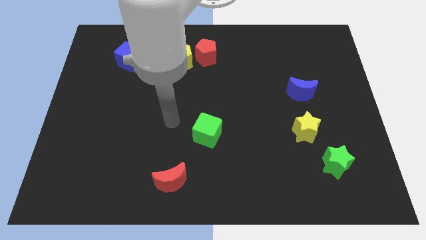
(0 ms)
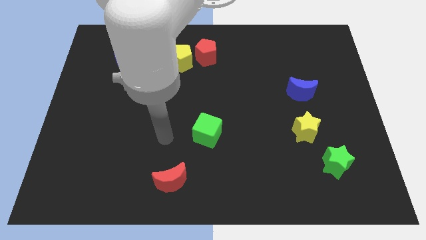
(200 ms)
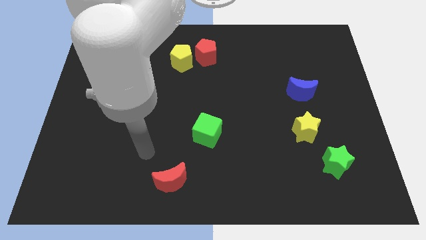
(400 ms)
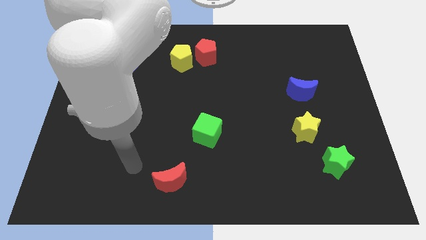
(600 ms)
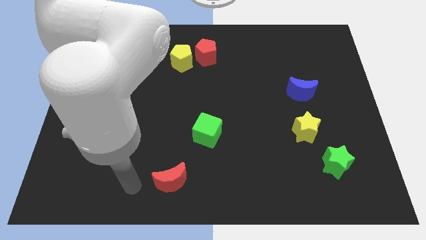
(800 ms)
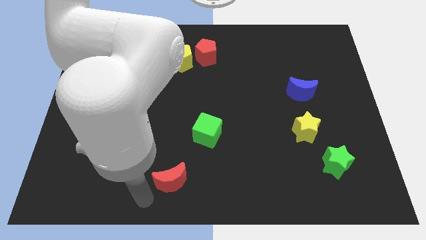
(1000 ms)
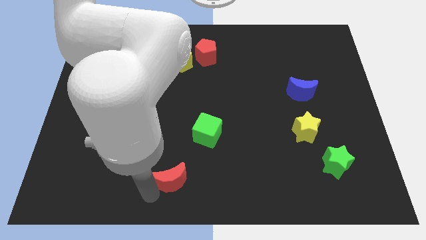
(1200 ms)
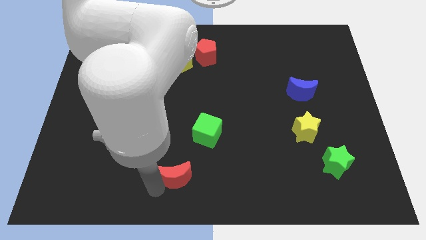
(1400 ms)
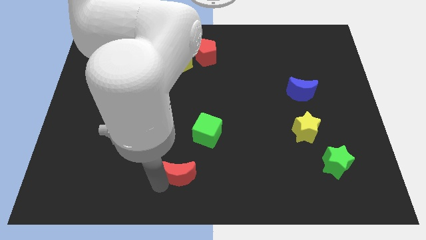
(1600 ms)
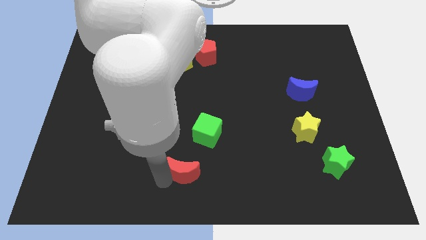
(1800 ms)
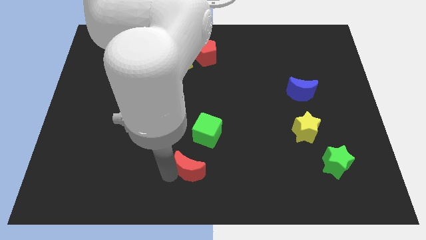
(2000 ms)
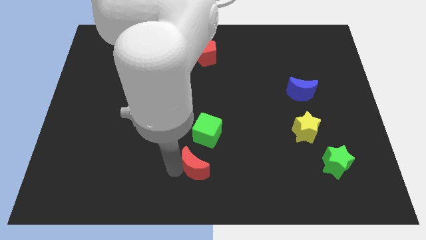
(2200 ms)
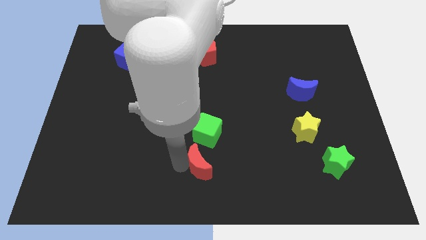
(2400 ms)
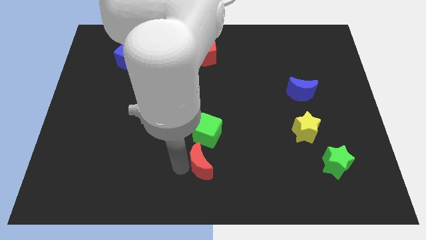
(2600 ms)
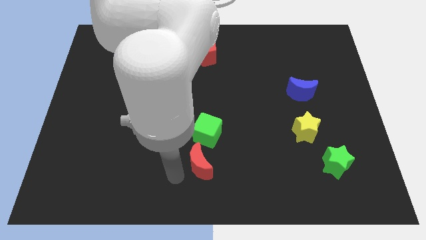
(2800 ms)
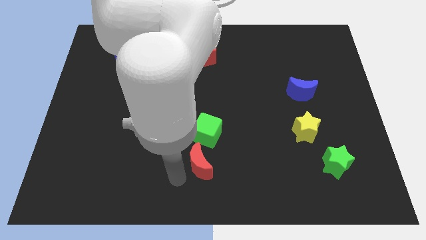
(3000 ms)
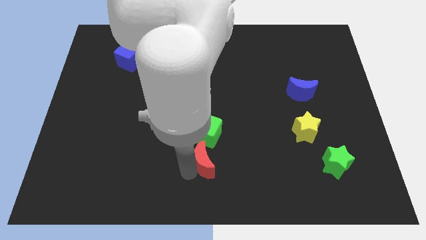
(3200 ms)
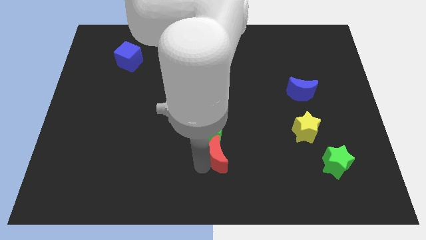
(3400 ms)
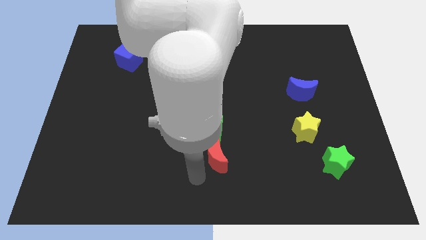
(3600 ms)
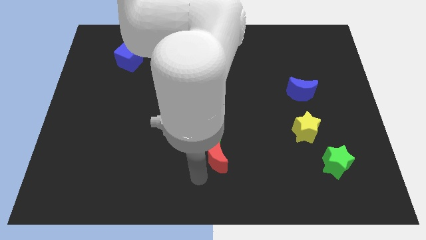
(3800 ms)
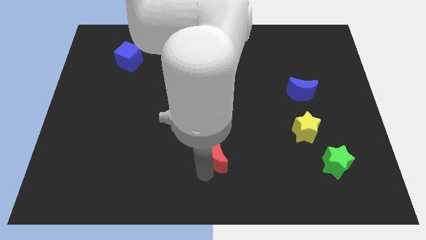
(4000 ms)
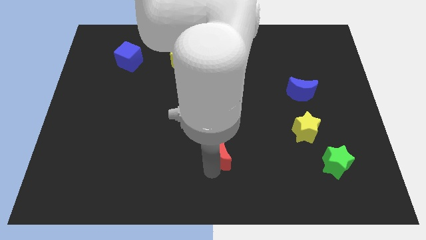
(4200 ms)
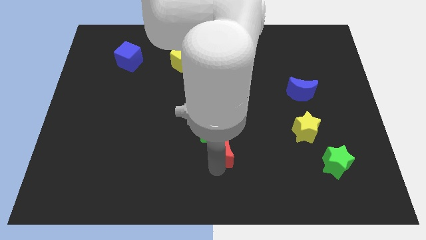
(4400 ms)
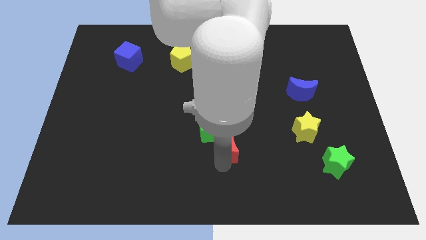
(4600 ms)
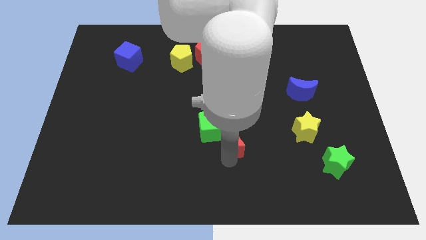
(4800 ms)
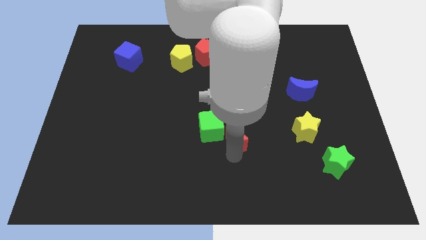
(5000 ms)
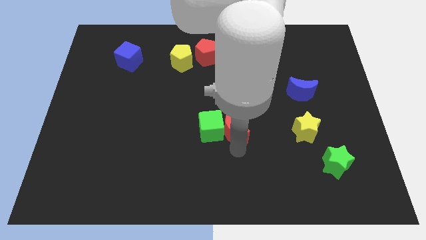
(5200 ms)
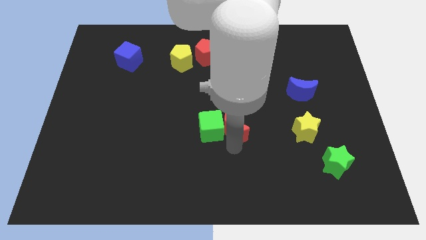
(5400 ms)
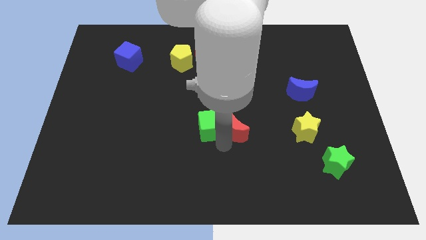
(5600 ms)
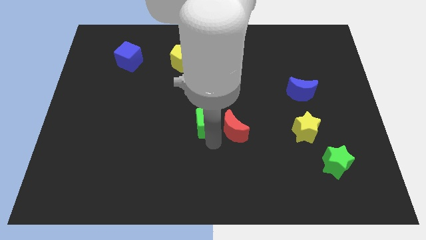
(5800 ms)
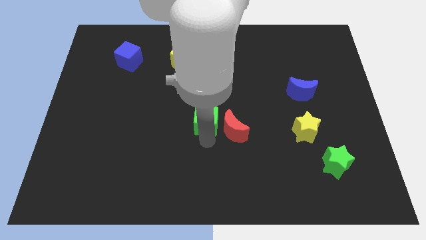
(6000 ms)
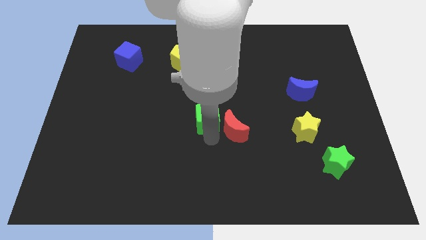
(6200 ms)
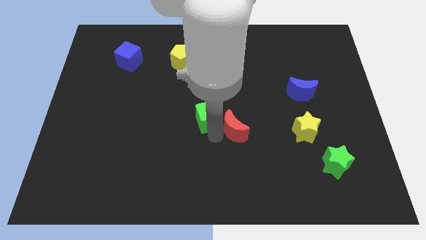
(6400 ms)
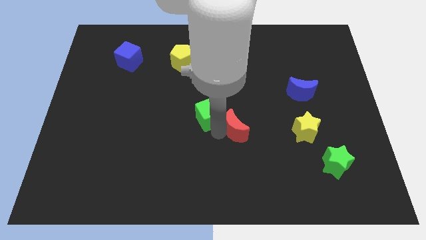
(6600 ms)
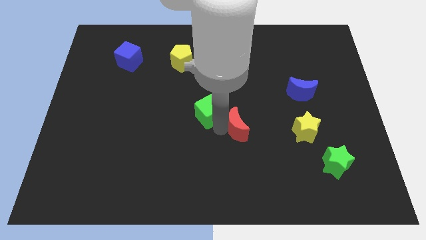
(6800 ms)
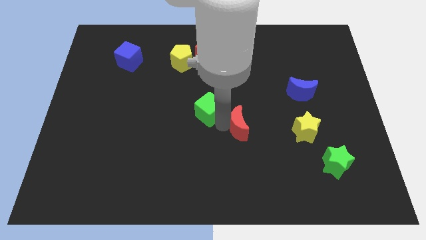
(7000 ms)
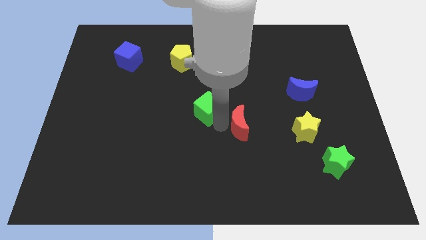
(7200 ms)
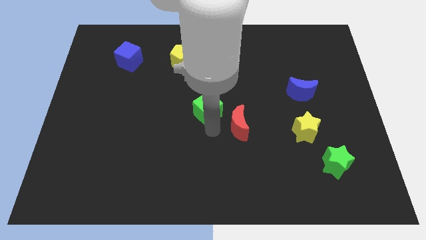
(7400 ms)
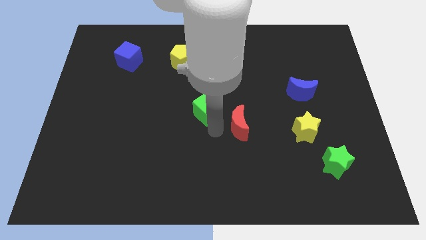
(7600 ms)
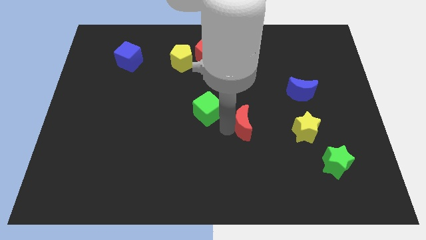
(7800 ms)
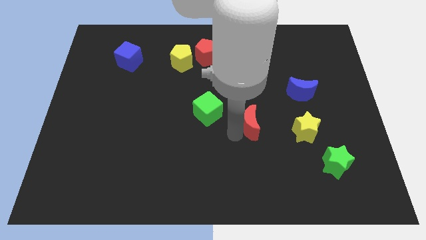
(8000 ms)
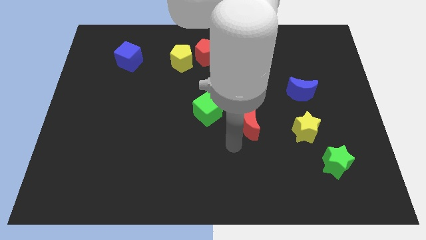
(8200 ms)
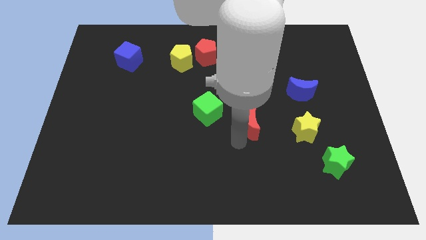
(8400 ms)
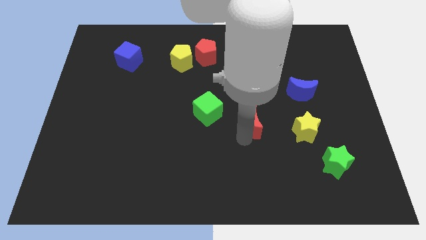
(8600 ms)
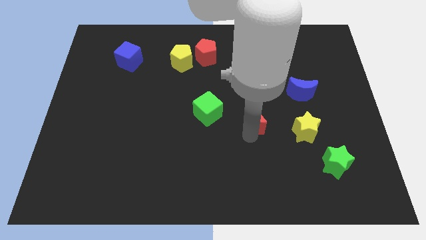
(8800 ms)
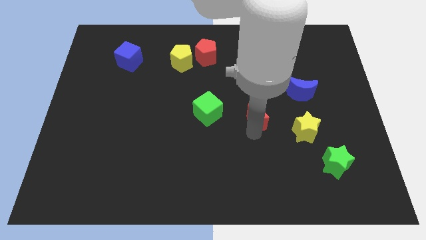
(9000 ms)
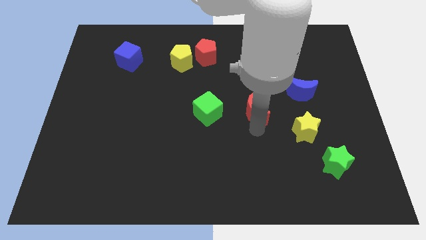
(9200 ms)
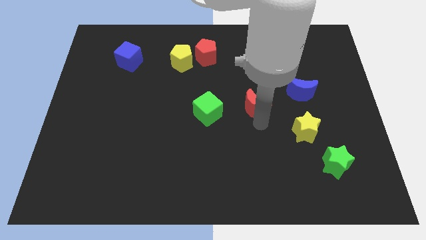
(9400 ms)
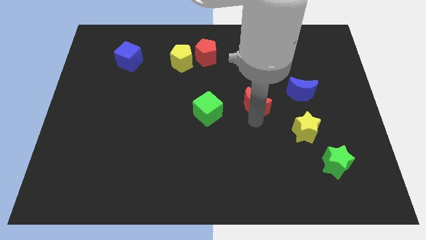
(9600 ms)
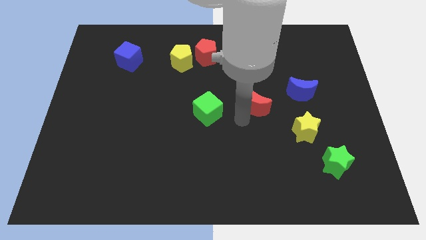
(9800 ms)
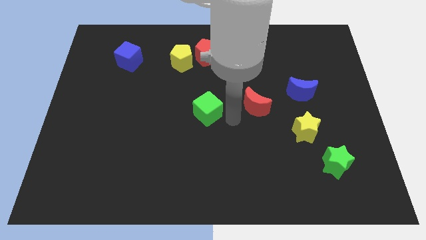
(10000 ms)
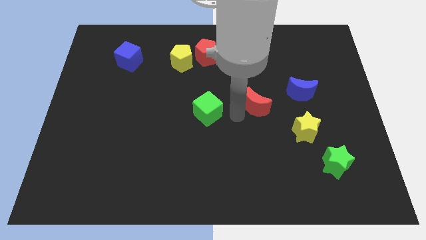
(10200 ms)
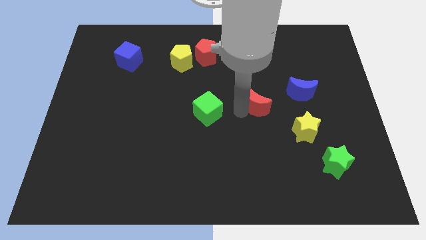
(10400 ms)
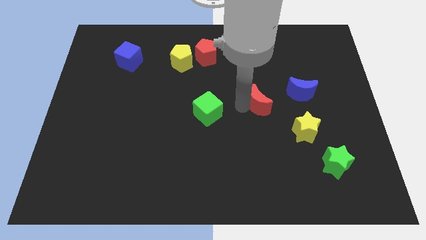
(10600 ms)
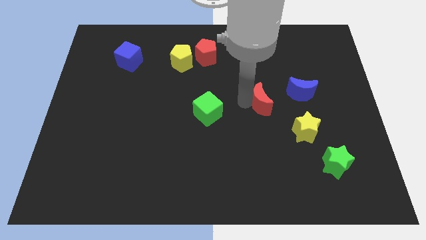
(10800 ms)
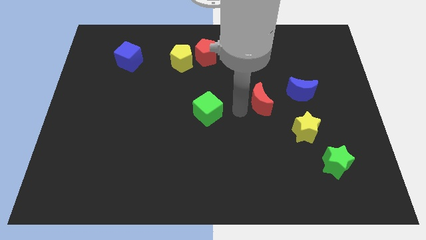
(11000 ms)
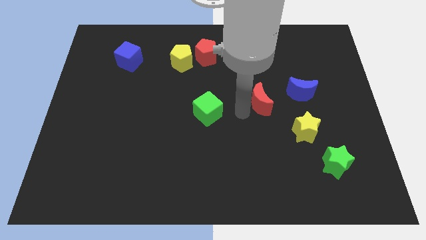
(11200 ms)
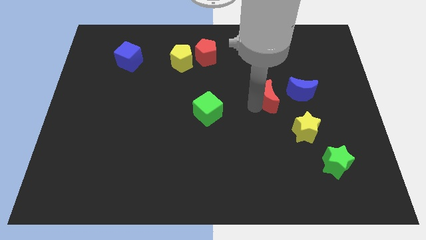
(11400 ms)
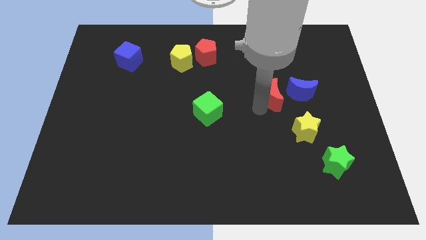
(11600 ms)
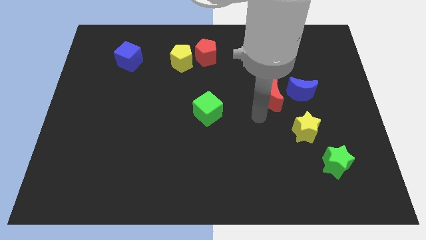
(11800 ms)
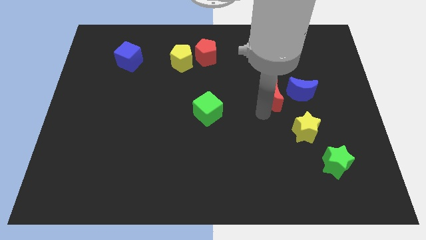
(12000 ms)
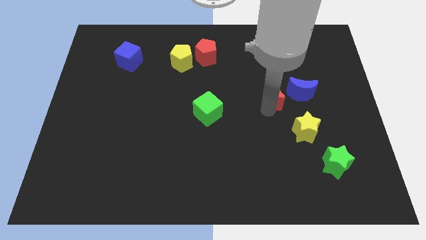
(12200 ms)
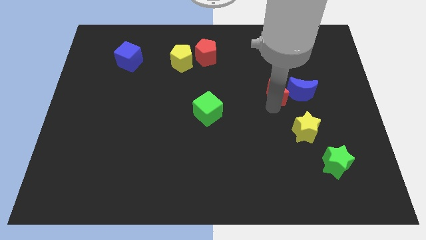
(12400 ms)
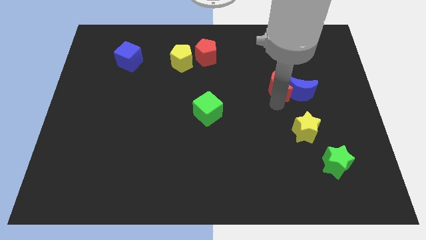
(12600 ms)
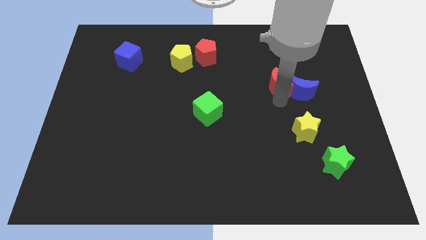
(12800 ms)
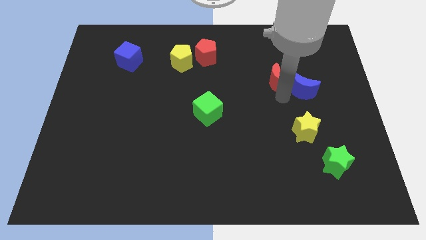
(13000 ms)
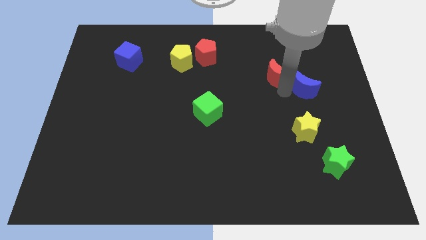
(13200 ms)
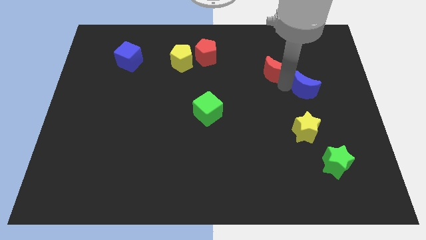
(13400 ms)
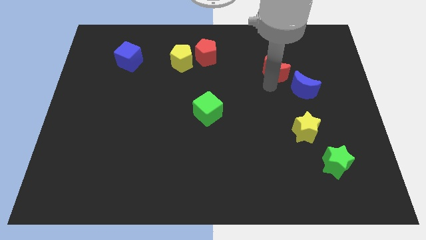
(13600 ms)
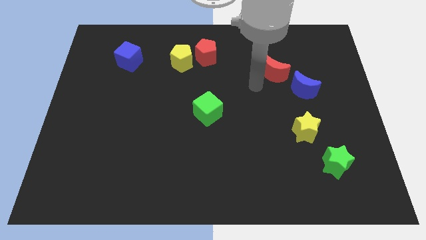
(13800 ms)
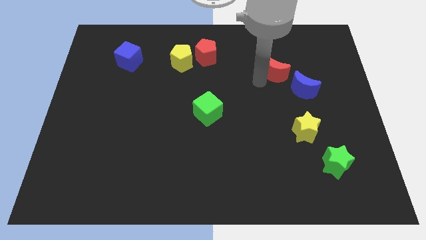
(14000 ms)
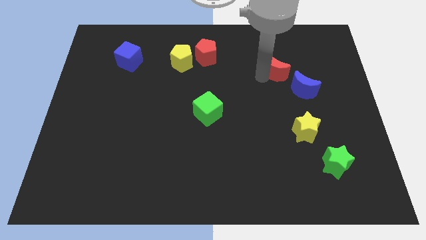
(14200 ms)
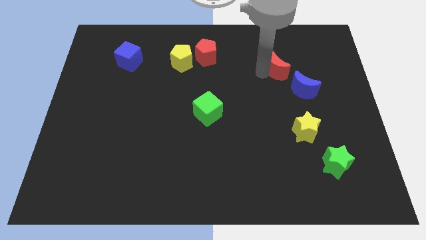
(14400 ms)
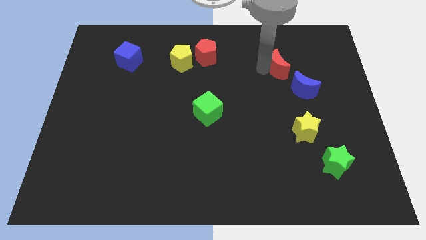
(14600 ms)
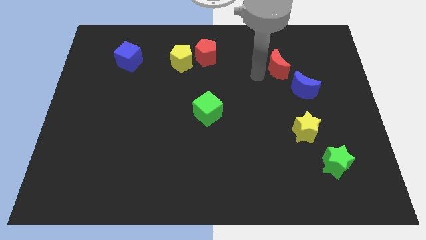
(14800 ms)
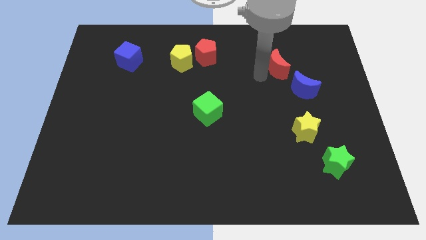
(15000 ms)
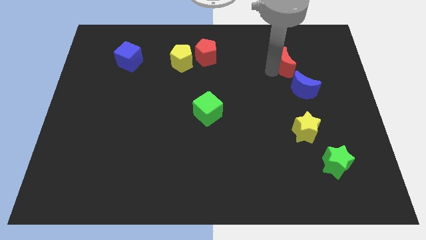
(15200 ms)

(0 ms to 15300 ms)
put the red moon to the top side of the blue moon

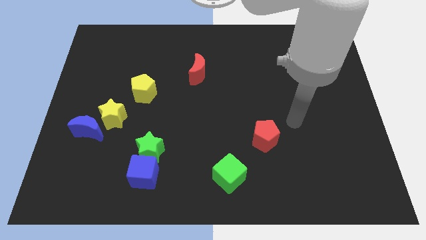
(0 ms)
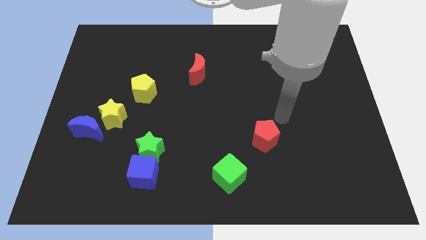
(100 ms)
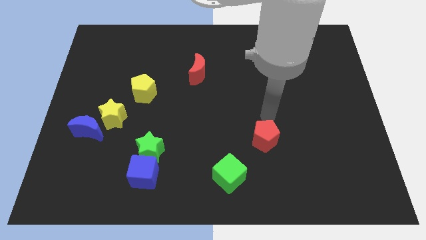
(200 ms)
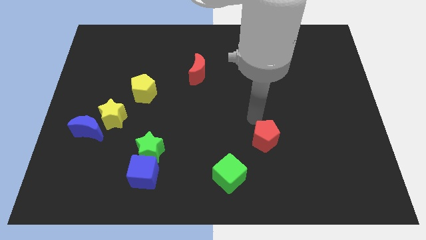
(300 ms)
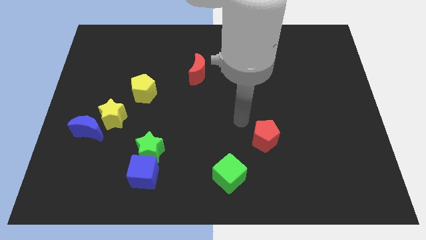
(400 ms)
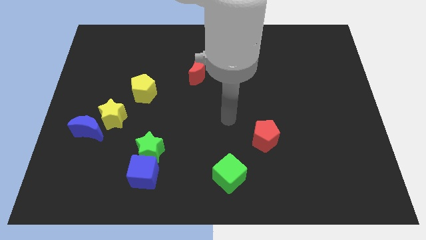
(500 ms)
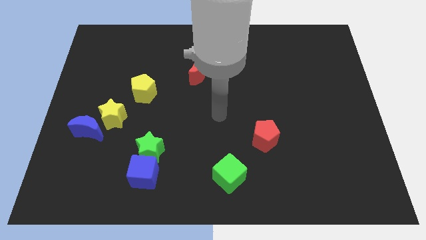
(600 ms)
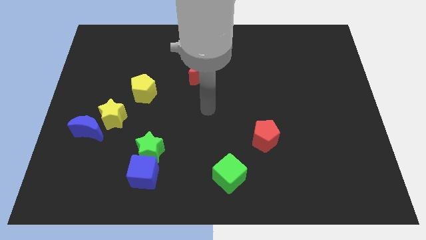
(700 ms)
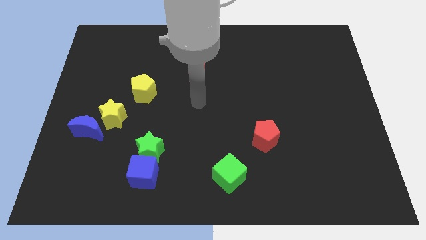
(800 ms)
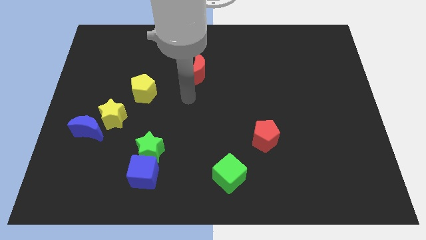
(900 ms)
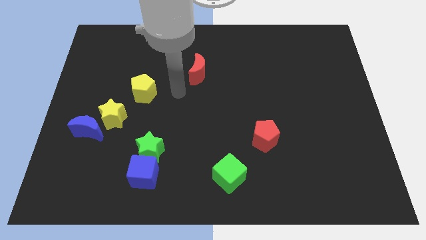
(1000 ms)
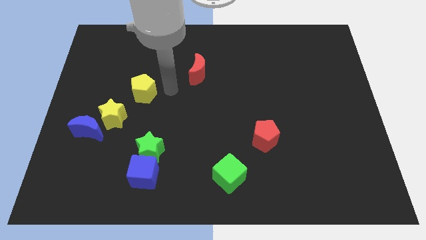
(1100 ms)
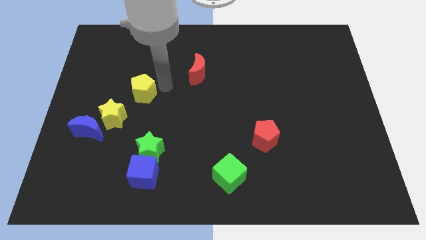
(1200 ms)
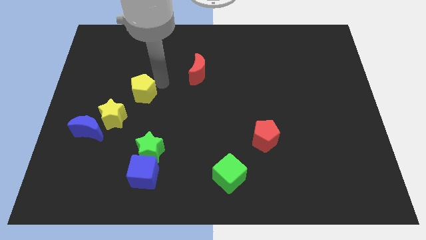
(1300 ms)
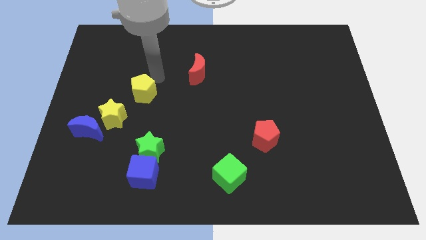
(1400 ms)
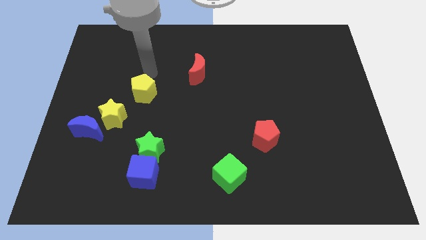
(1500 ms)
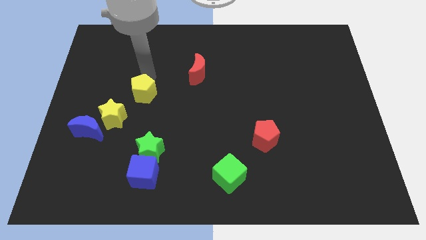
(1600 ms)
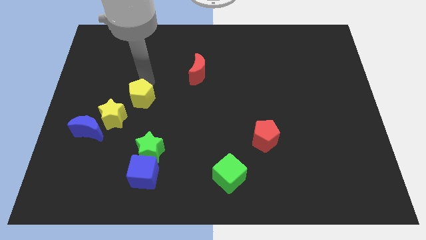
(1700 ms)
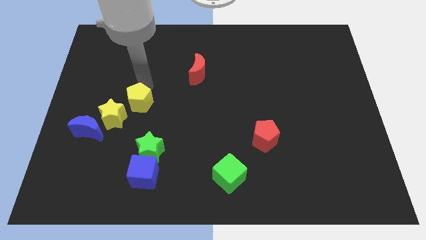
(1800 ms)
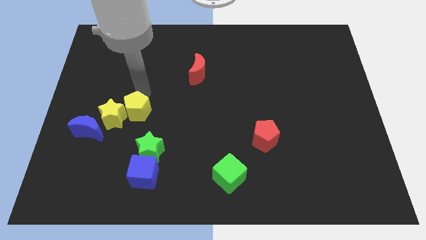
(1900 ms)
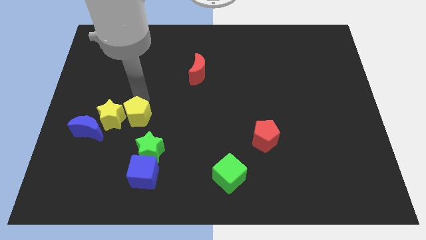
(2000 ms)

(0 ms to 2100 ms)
slide the yellow pentagon to the top left of the green star
